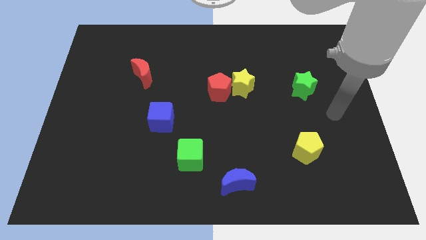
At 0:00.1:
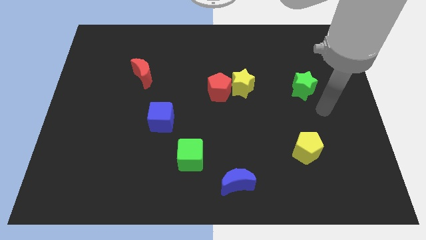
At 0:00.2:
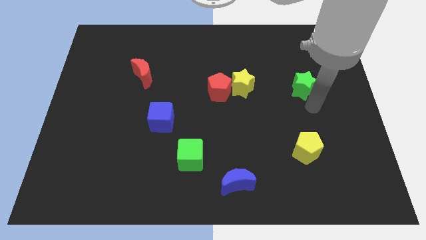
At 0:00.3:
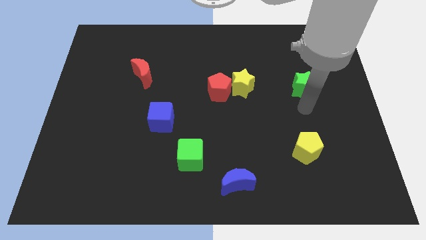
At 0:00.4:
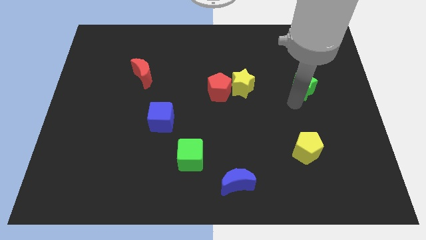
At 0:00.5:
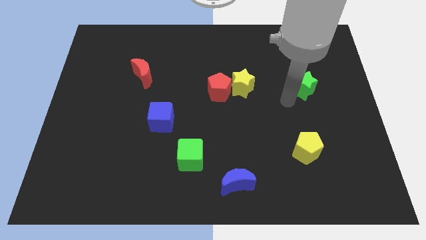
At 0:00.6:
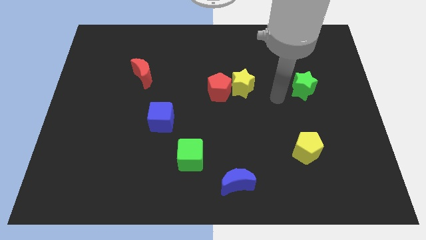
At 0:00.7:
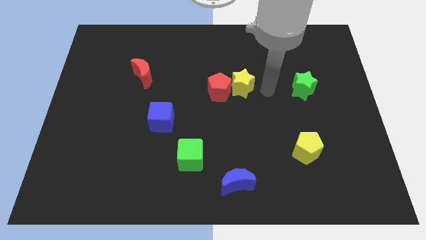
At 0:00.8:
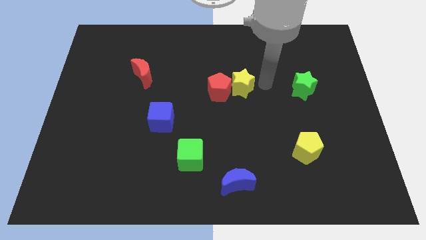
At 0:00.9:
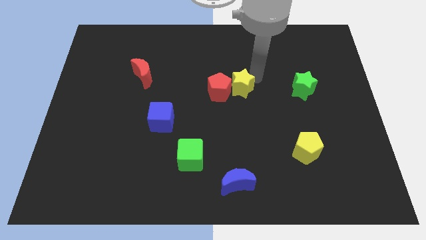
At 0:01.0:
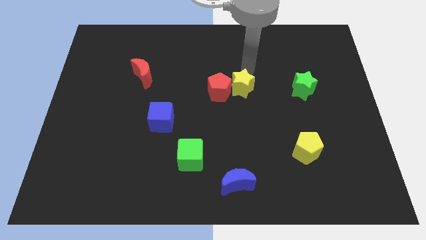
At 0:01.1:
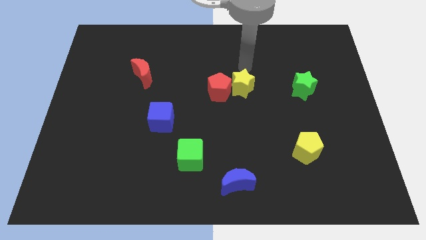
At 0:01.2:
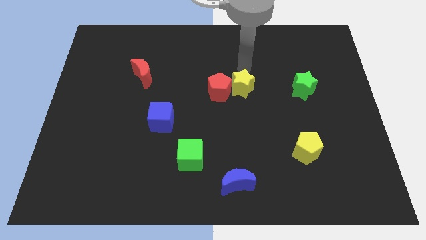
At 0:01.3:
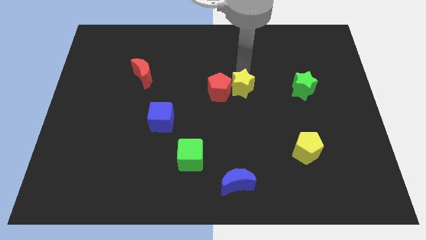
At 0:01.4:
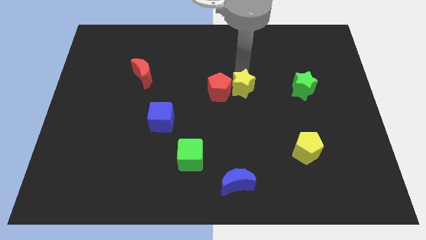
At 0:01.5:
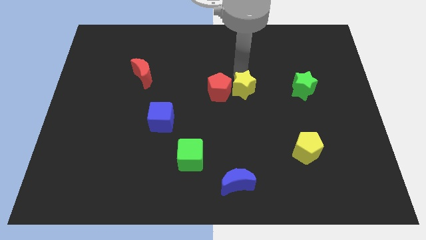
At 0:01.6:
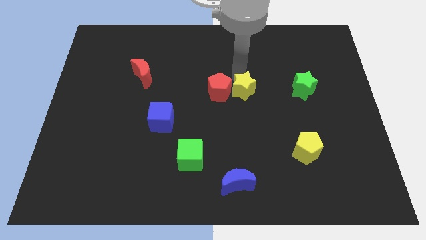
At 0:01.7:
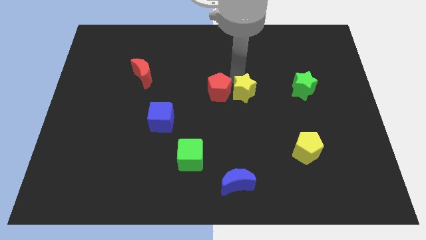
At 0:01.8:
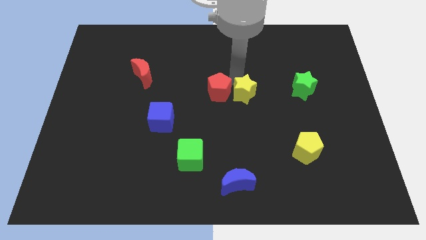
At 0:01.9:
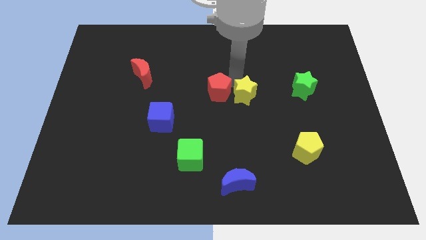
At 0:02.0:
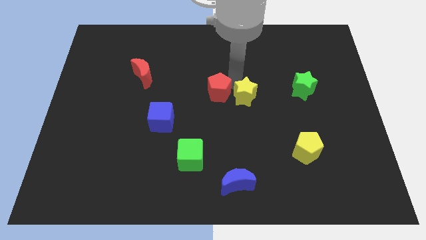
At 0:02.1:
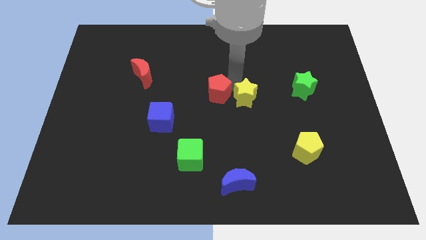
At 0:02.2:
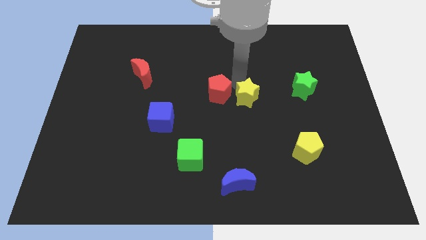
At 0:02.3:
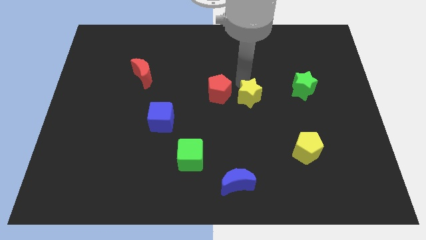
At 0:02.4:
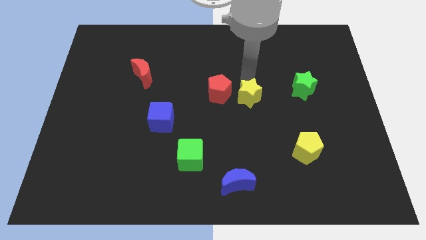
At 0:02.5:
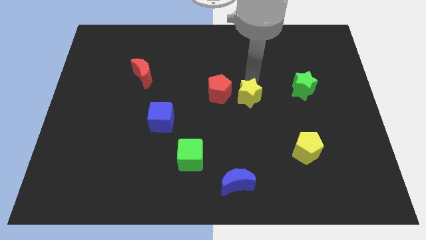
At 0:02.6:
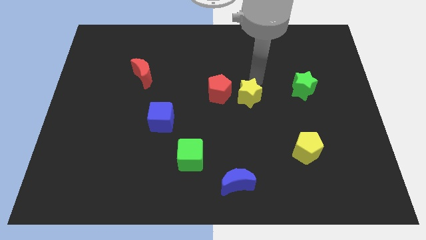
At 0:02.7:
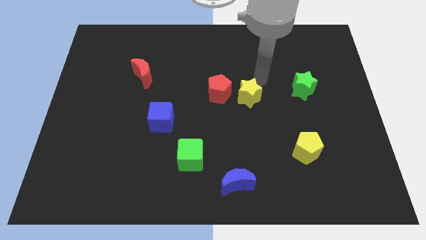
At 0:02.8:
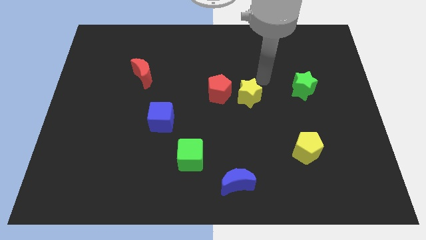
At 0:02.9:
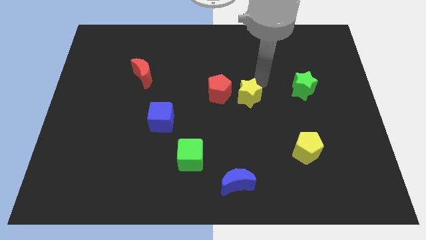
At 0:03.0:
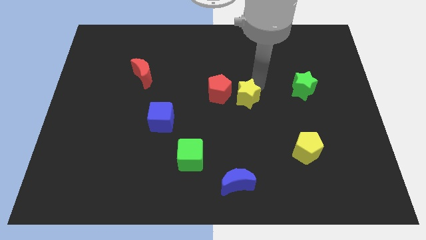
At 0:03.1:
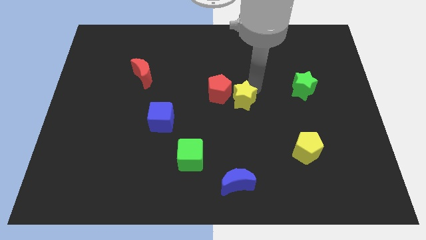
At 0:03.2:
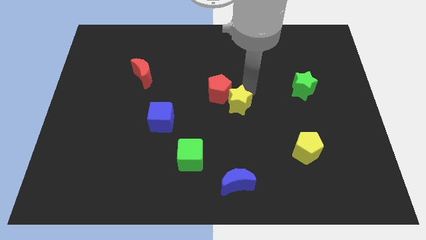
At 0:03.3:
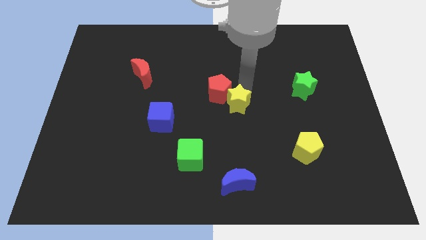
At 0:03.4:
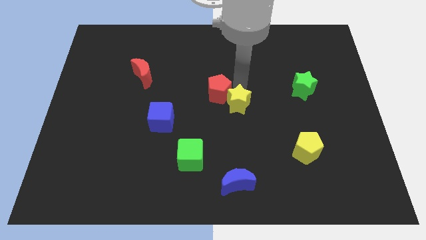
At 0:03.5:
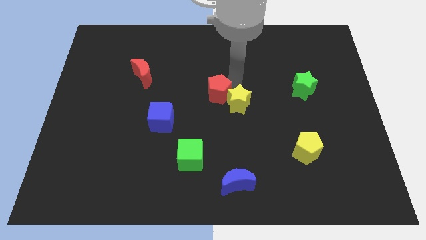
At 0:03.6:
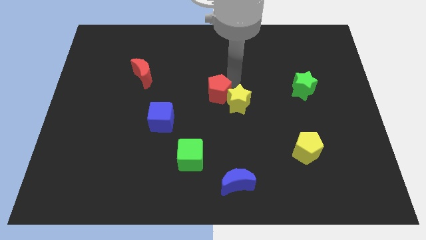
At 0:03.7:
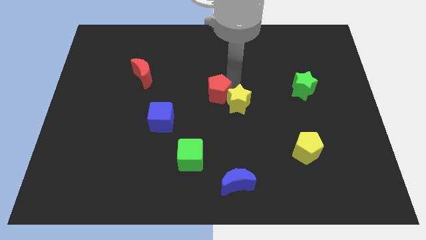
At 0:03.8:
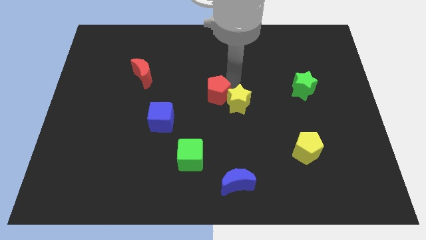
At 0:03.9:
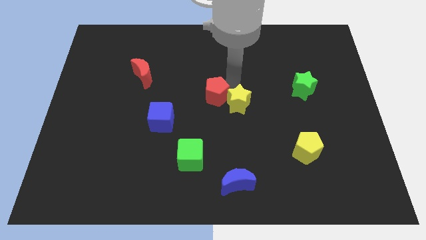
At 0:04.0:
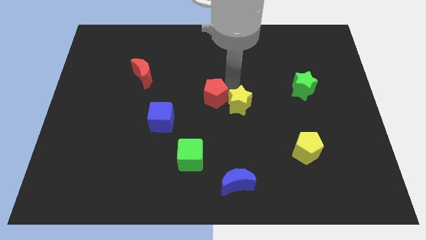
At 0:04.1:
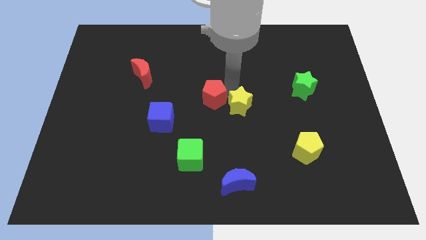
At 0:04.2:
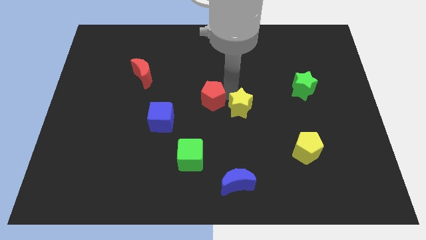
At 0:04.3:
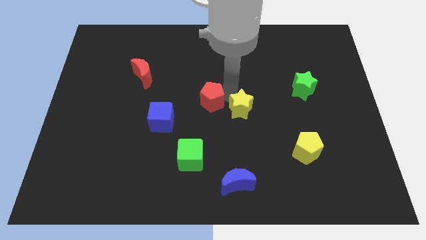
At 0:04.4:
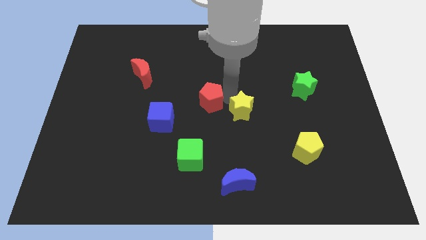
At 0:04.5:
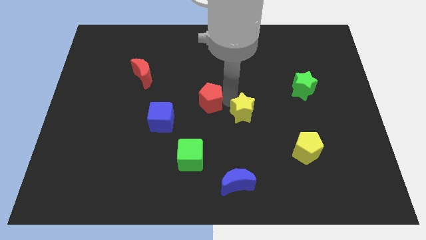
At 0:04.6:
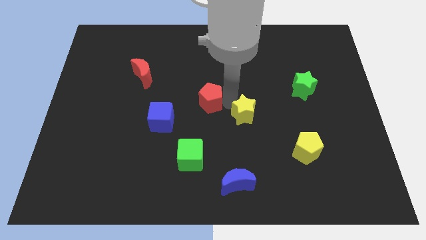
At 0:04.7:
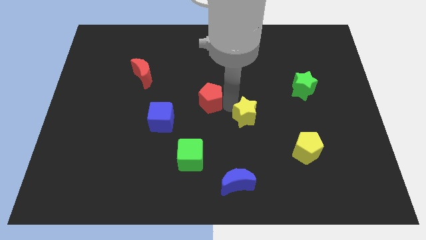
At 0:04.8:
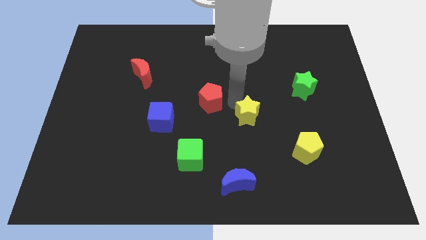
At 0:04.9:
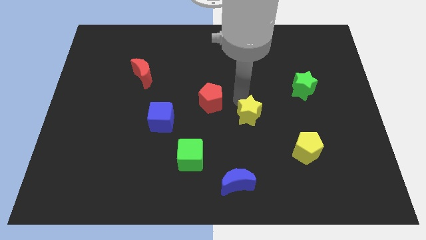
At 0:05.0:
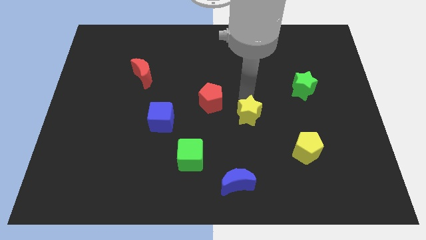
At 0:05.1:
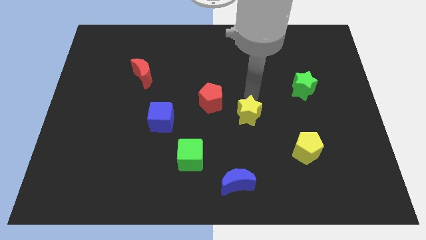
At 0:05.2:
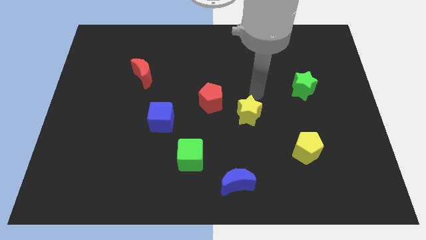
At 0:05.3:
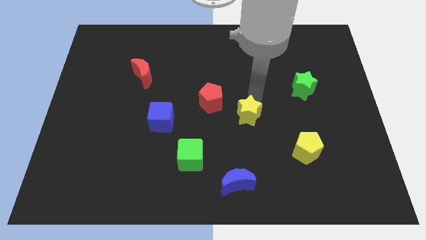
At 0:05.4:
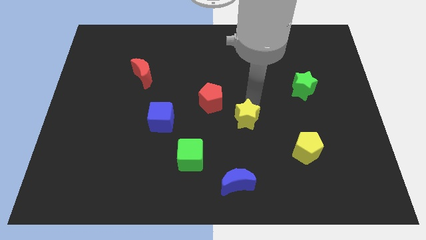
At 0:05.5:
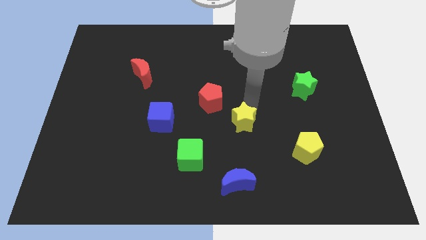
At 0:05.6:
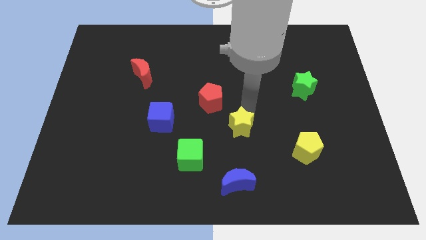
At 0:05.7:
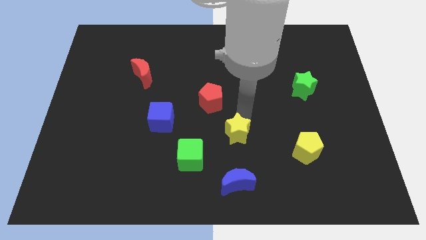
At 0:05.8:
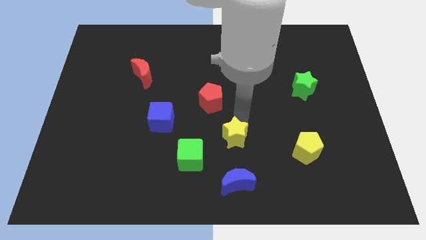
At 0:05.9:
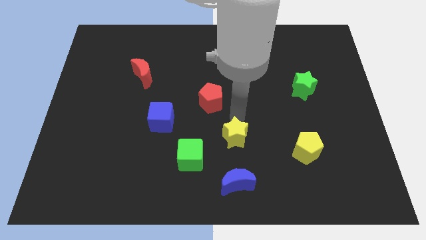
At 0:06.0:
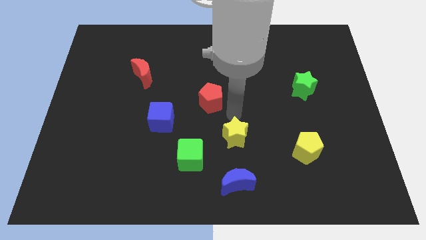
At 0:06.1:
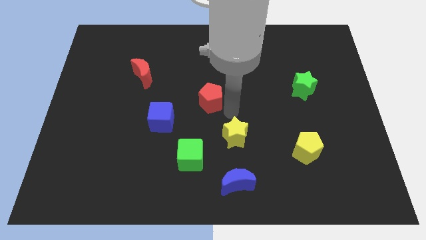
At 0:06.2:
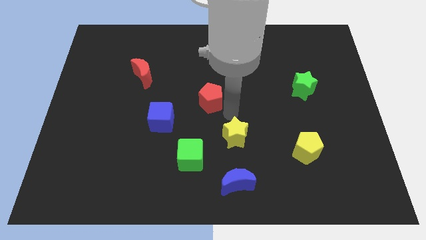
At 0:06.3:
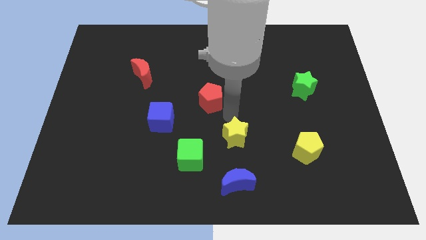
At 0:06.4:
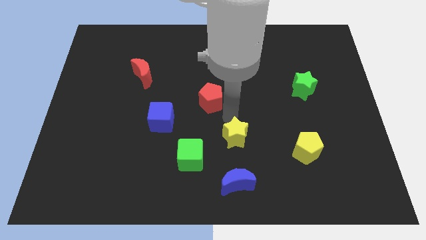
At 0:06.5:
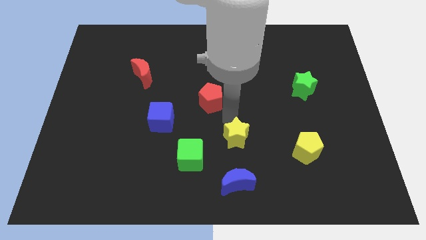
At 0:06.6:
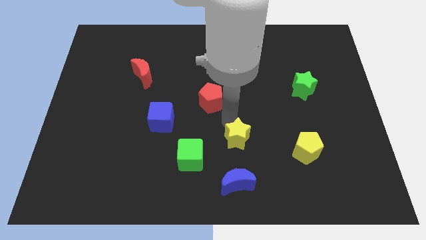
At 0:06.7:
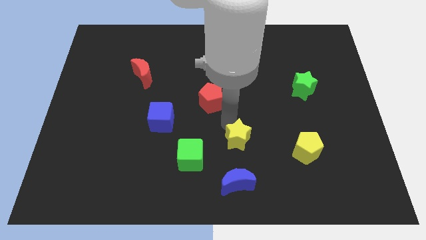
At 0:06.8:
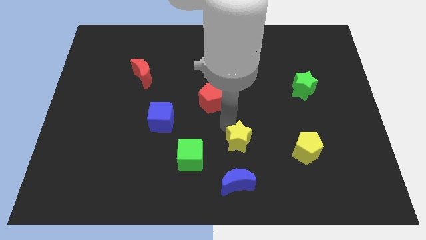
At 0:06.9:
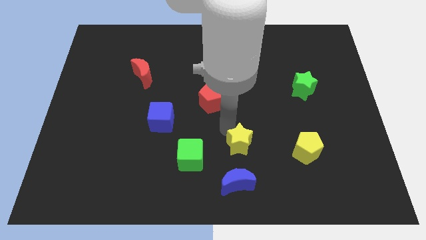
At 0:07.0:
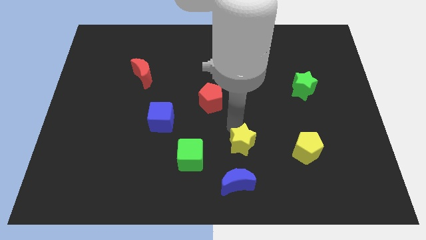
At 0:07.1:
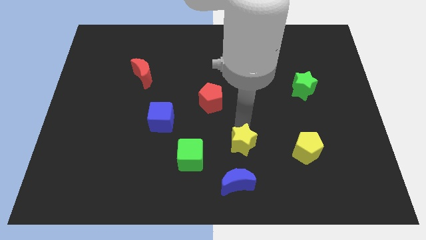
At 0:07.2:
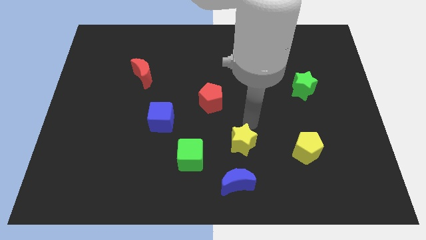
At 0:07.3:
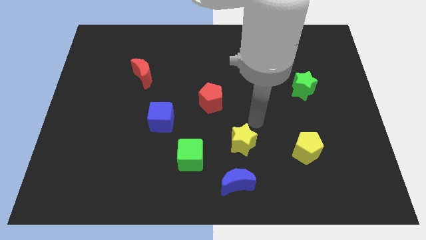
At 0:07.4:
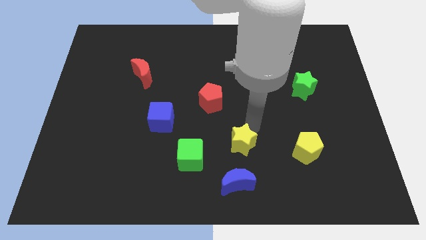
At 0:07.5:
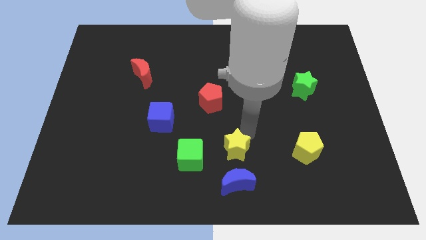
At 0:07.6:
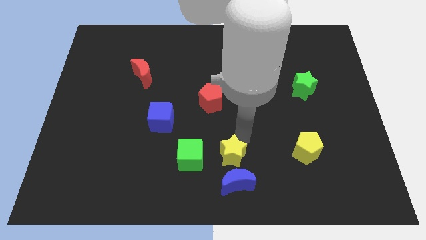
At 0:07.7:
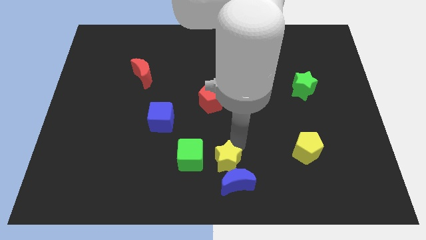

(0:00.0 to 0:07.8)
push the yellow star to the bottom side
